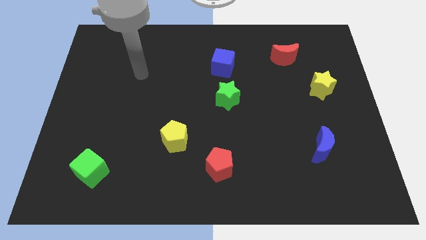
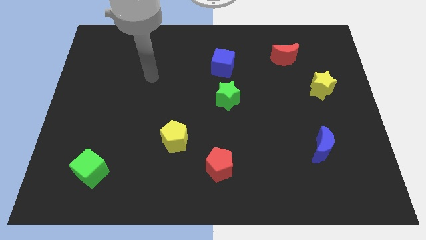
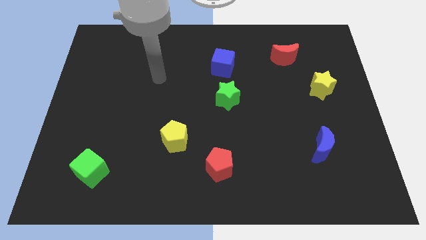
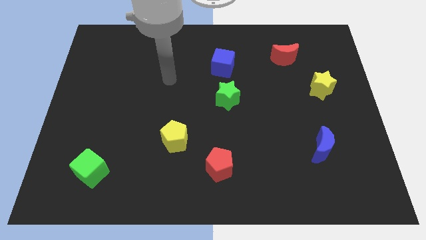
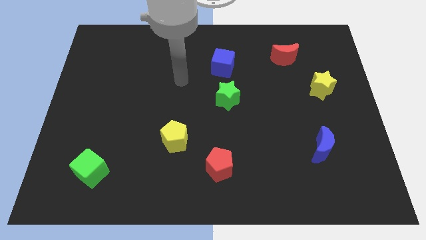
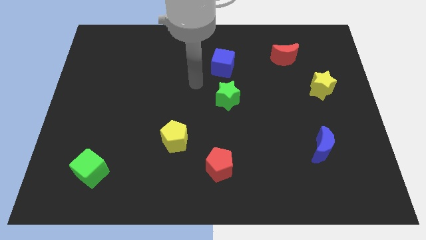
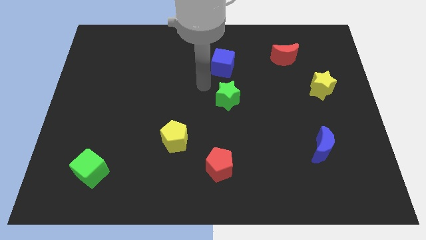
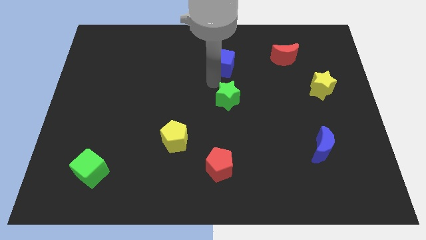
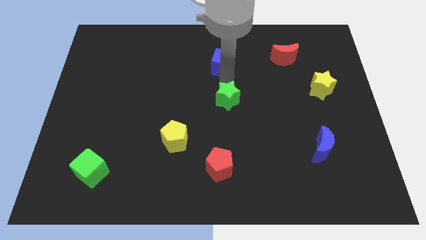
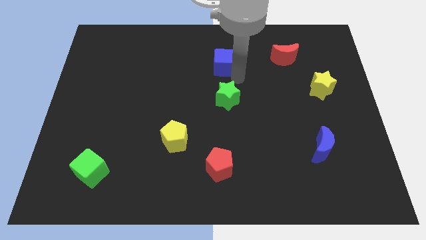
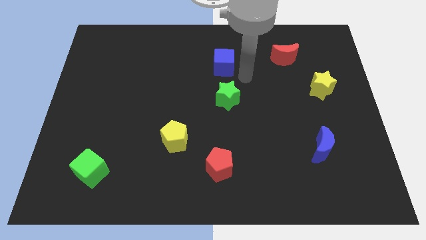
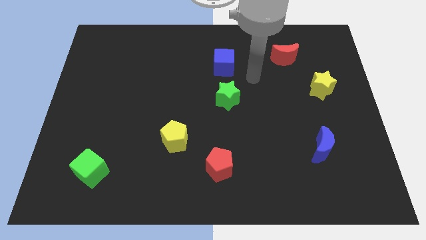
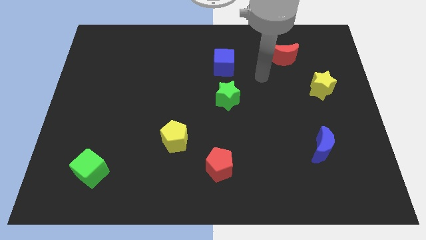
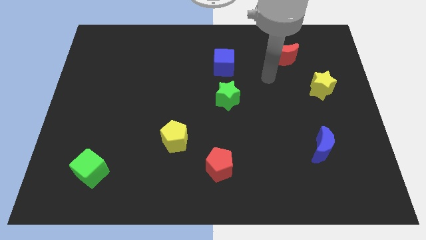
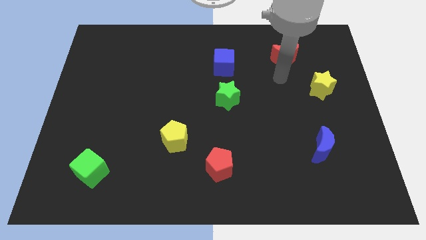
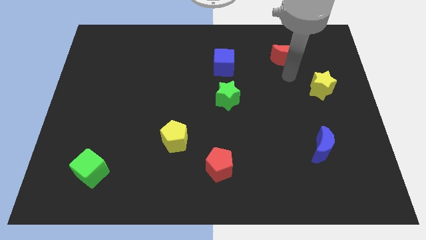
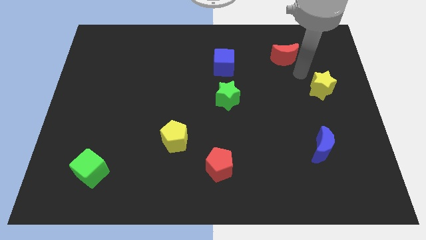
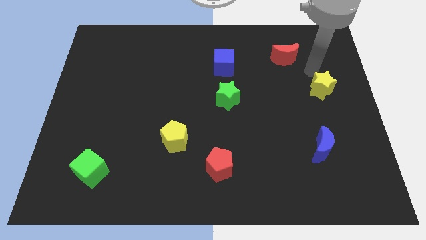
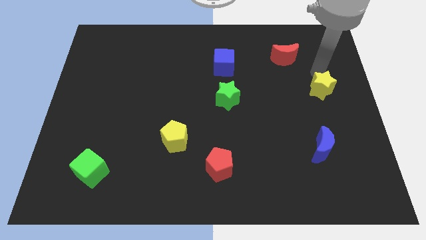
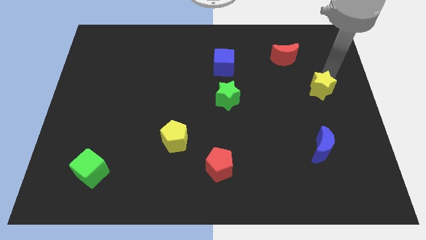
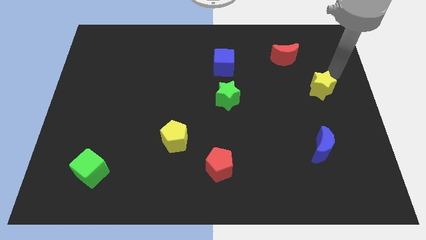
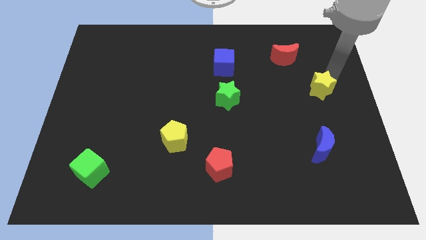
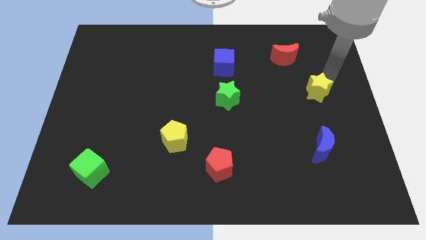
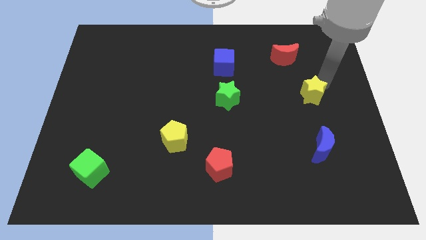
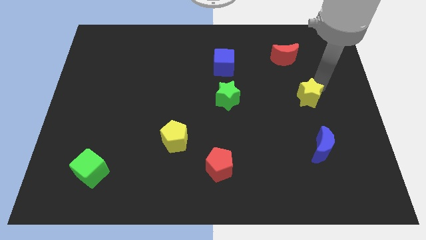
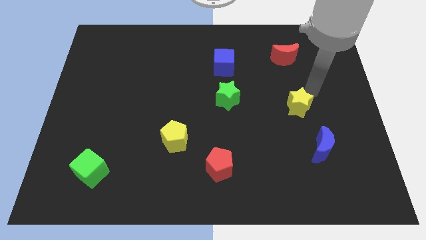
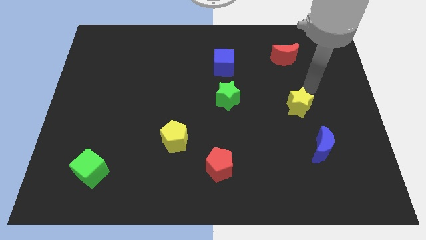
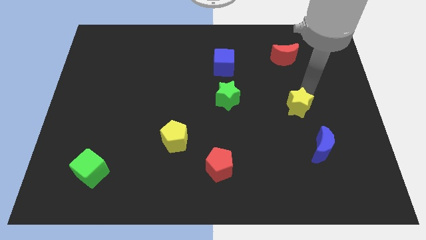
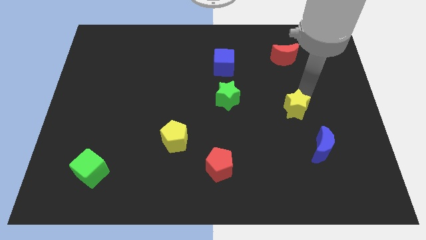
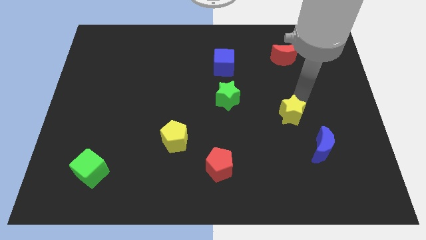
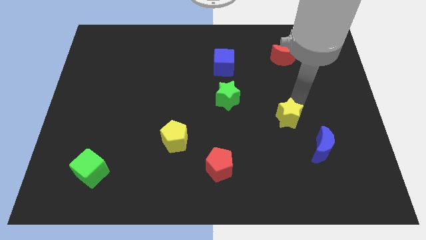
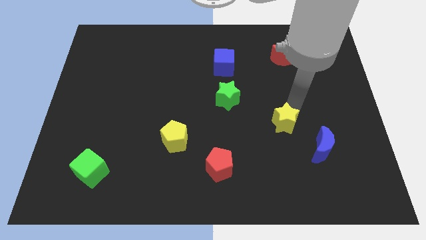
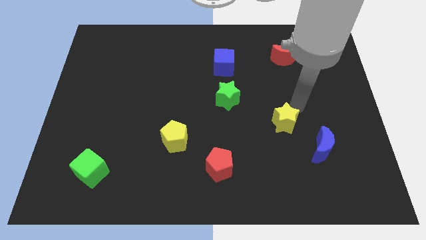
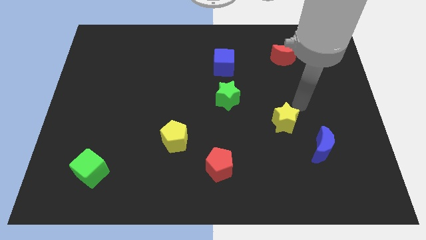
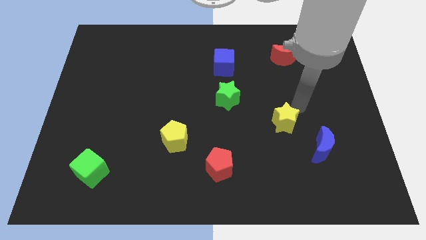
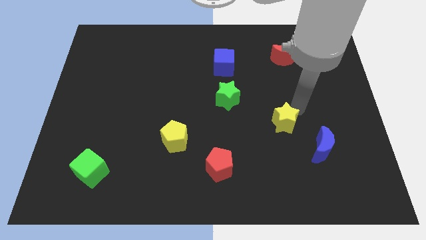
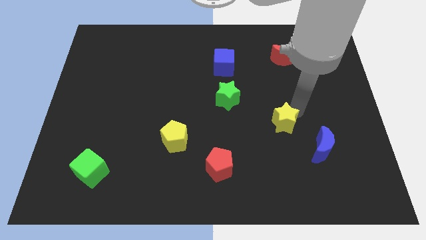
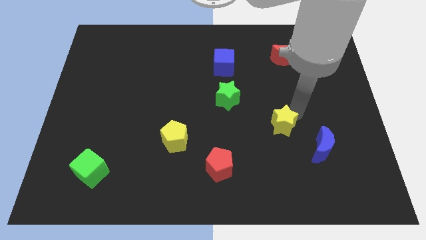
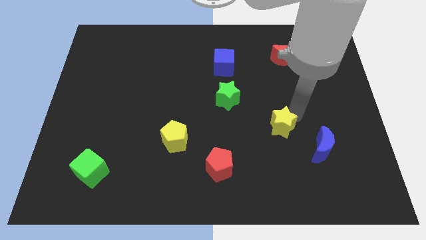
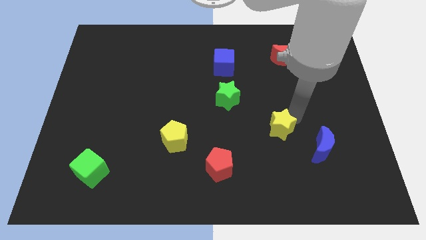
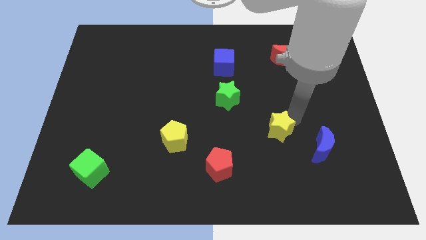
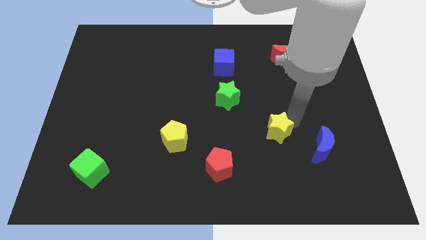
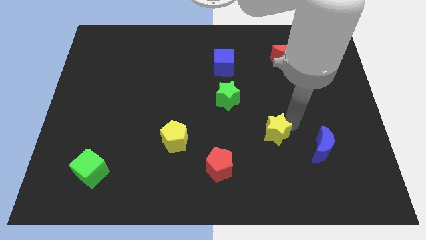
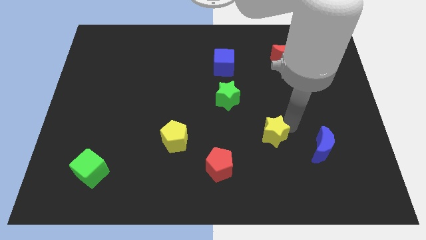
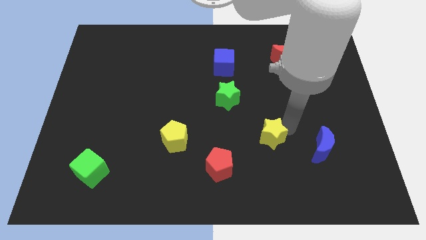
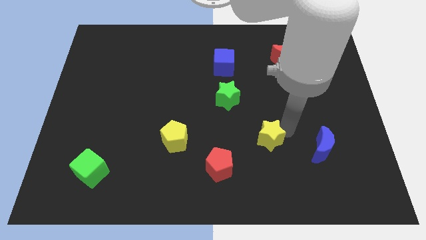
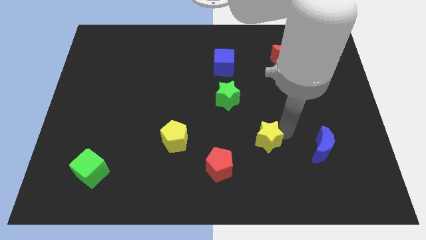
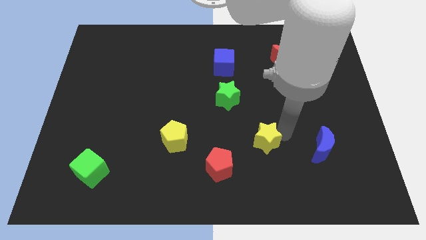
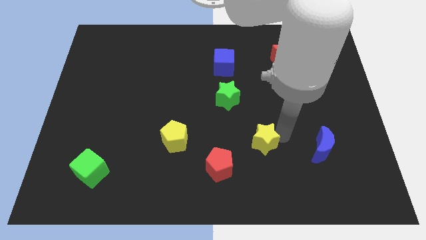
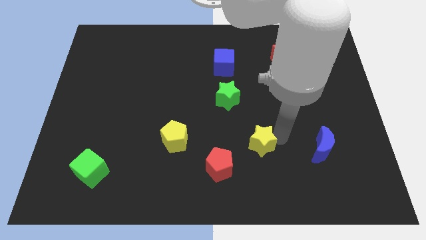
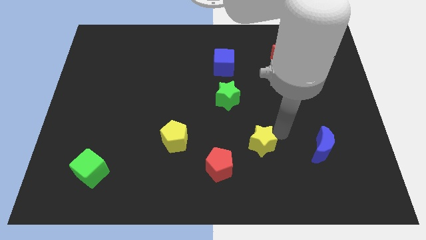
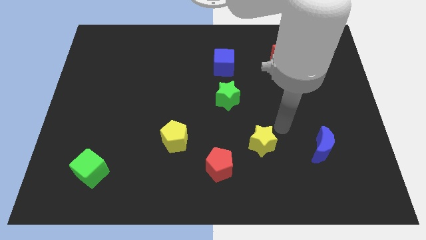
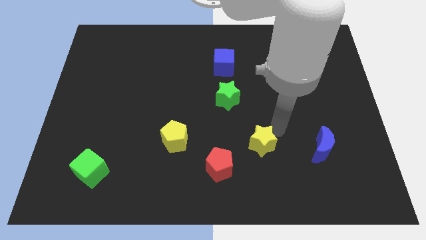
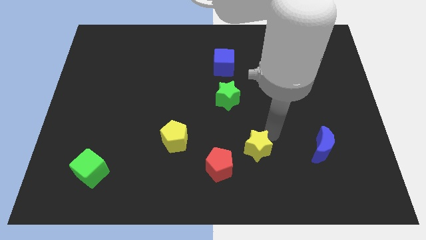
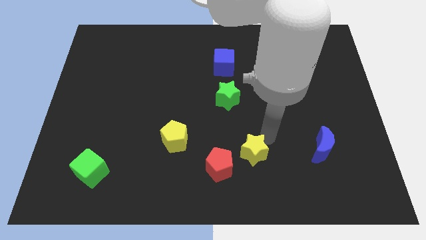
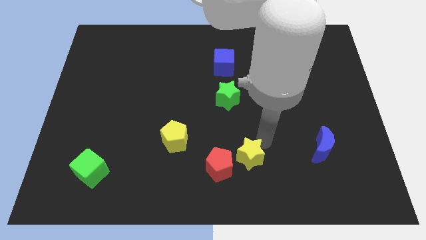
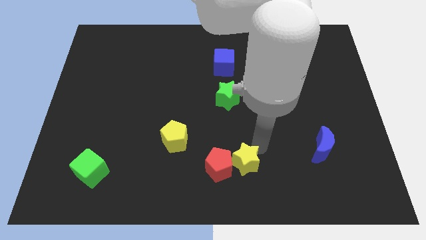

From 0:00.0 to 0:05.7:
put the yellow star towards the red pentagon

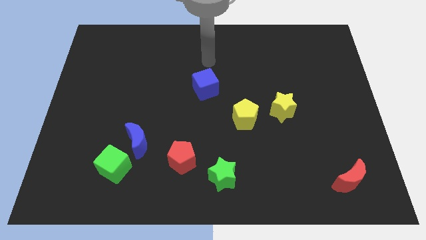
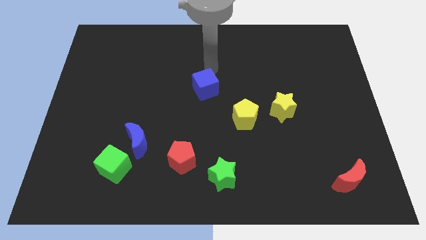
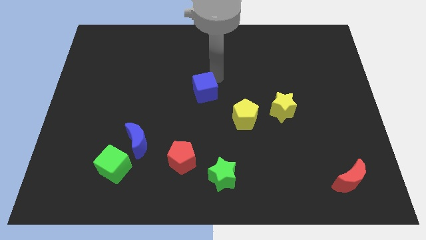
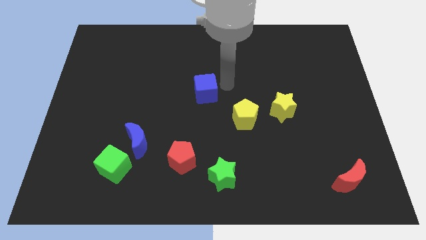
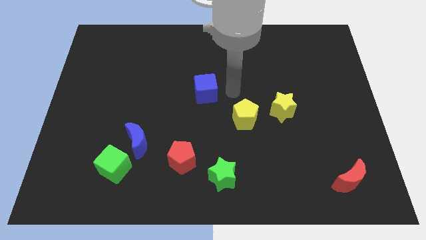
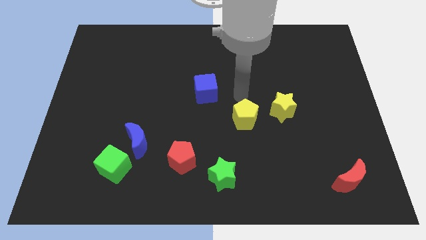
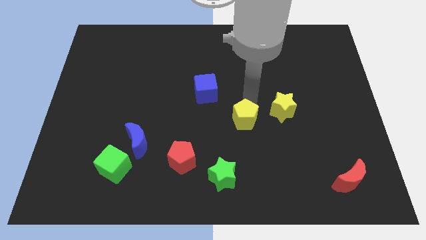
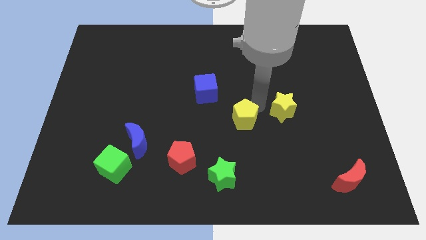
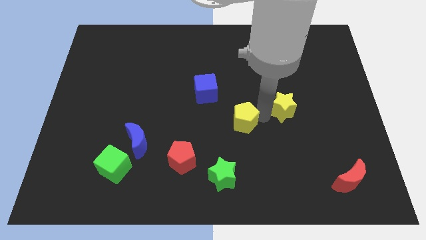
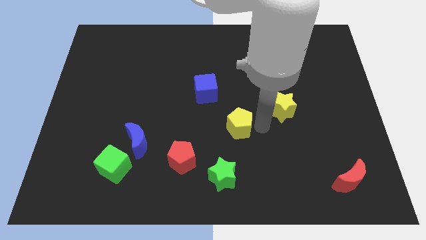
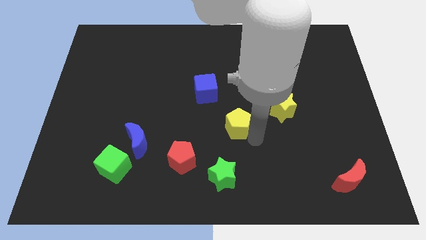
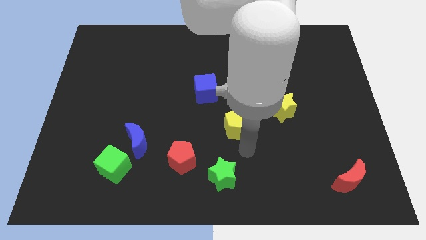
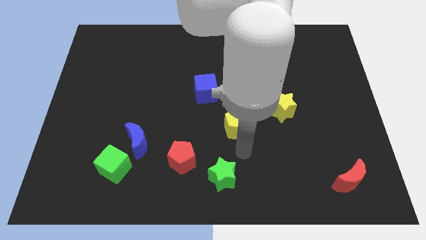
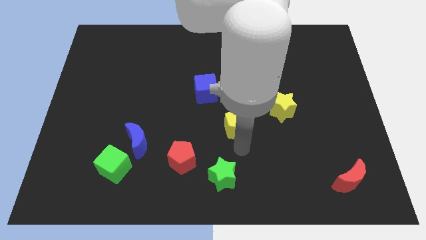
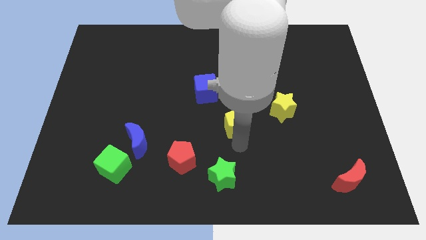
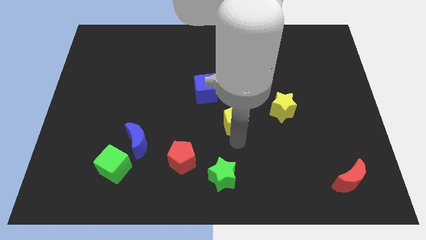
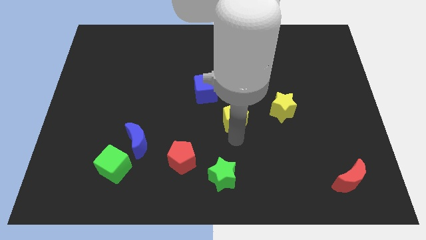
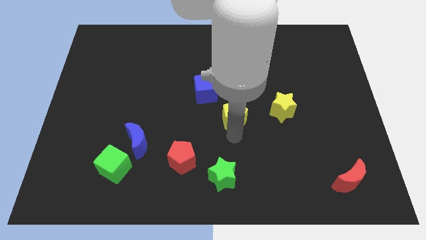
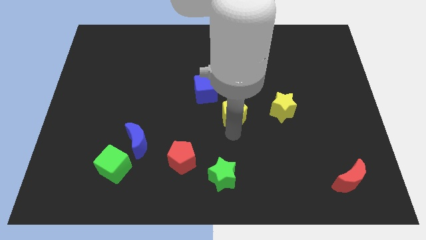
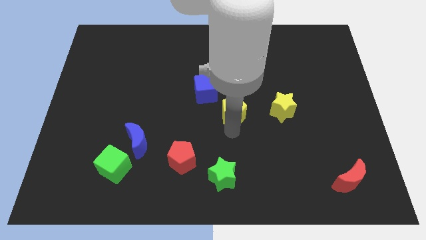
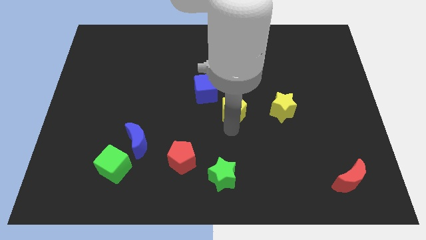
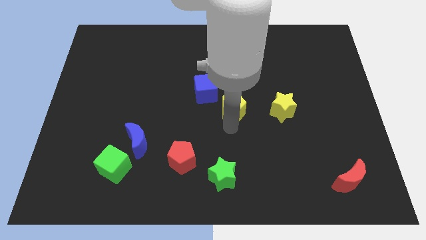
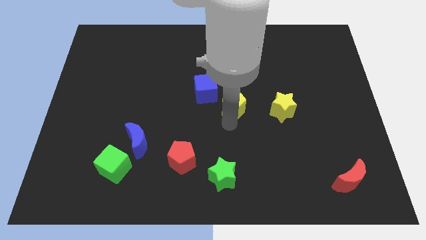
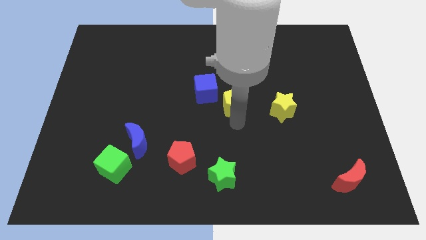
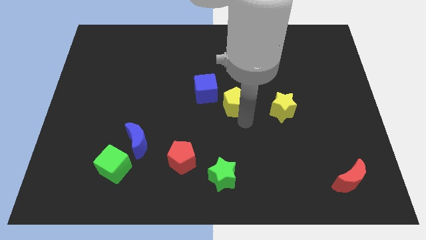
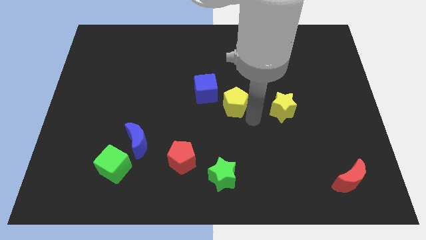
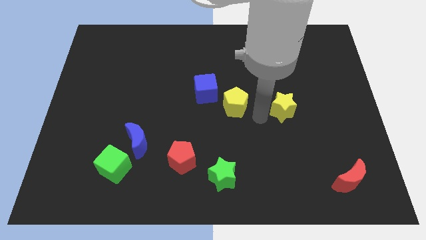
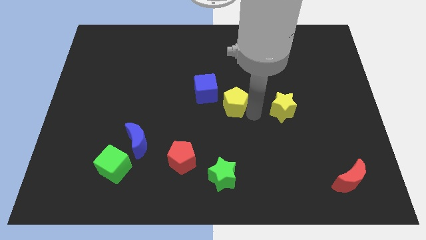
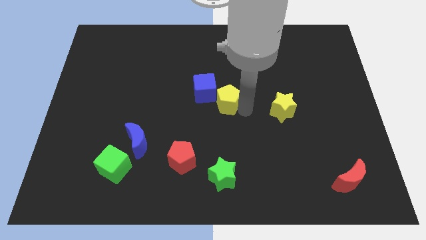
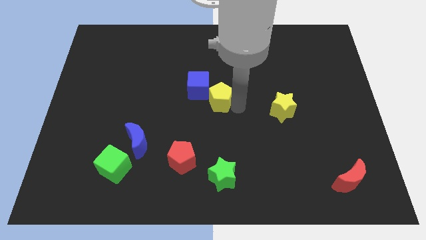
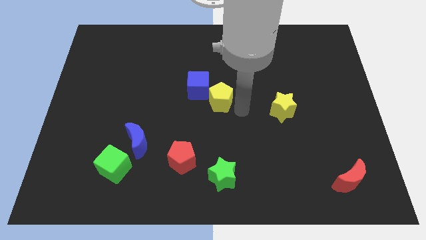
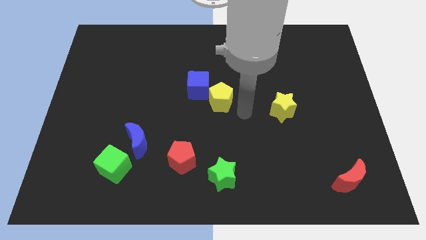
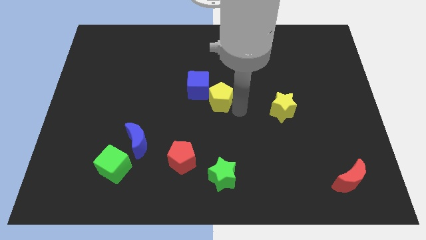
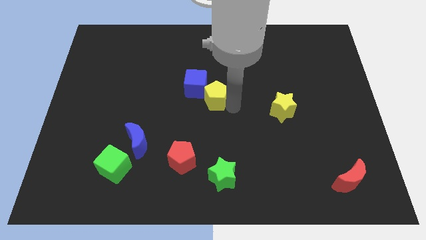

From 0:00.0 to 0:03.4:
push the yellow pentagon towards the blue cube
